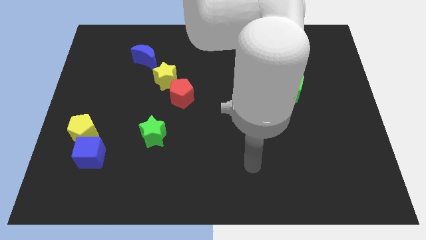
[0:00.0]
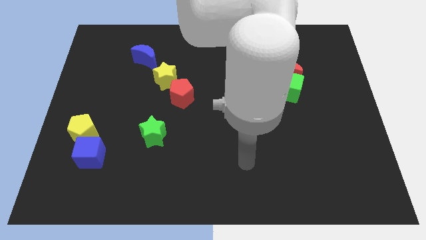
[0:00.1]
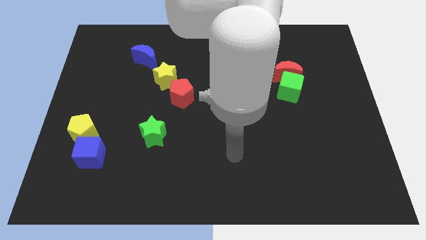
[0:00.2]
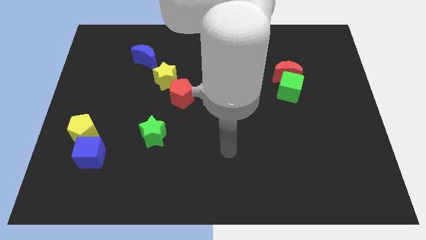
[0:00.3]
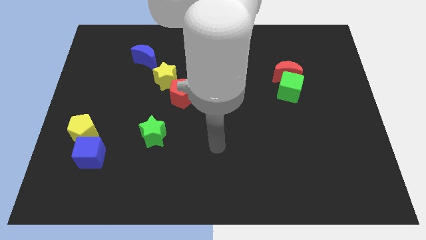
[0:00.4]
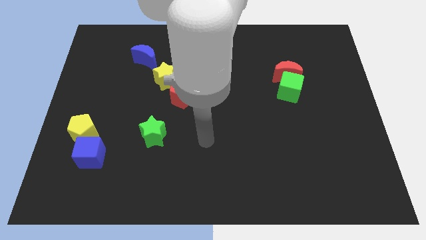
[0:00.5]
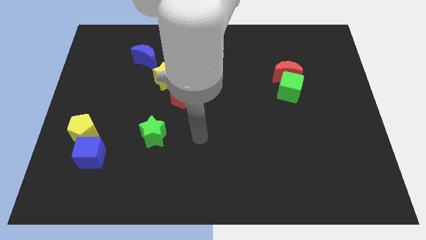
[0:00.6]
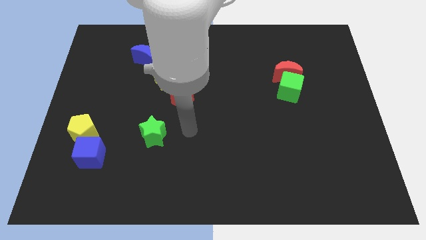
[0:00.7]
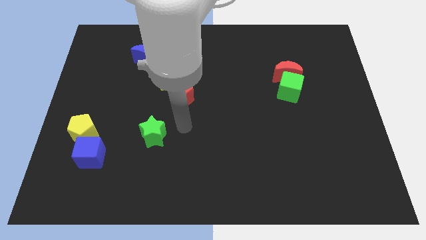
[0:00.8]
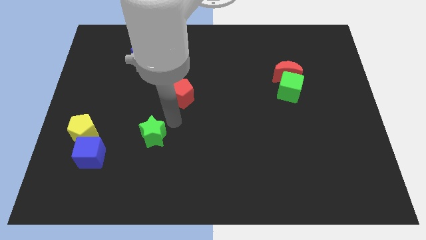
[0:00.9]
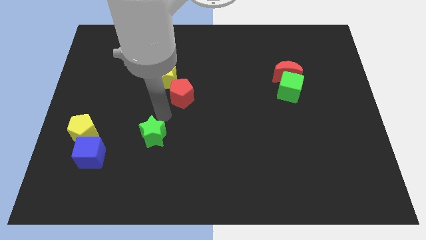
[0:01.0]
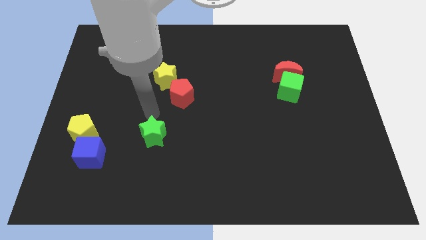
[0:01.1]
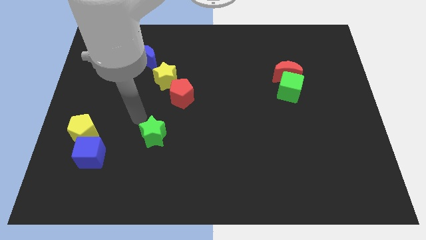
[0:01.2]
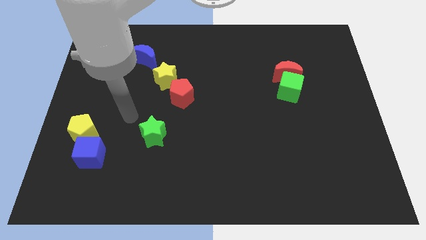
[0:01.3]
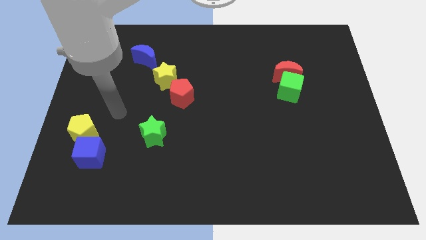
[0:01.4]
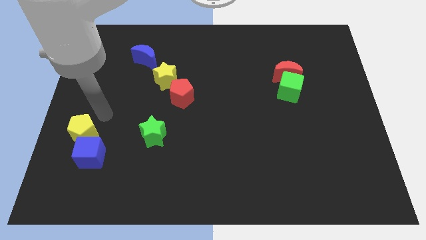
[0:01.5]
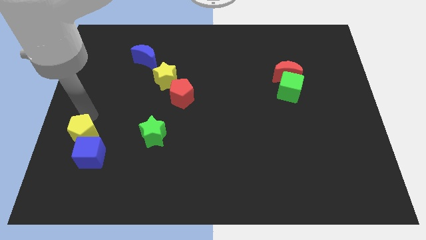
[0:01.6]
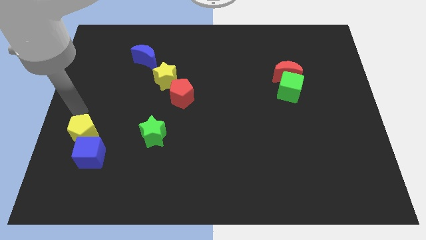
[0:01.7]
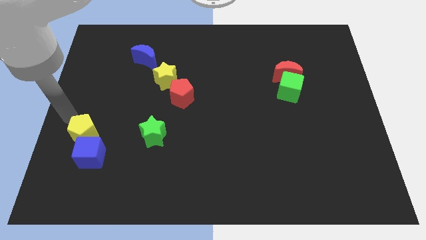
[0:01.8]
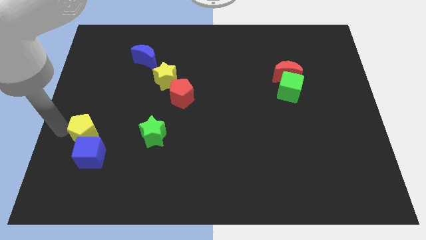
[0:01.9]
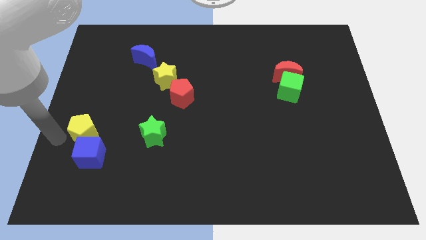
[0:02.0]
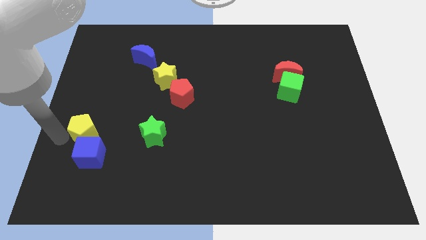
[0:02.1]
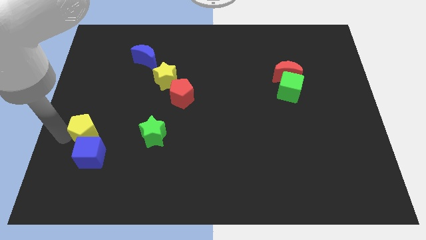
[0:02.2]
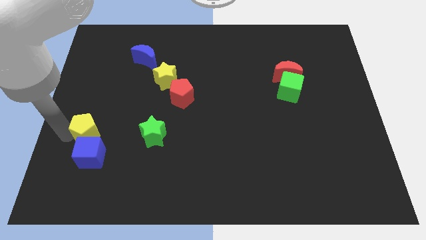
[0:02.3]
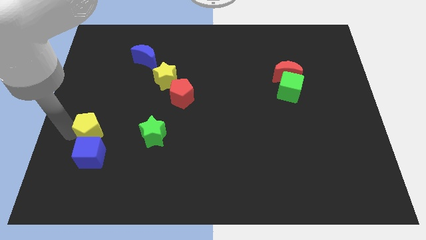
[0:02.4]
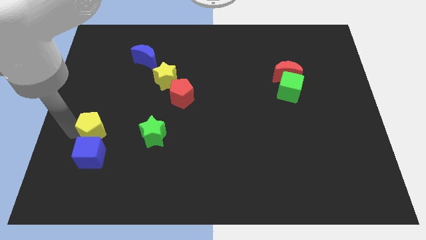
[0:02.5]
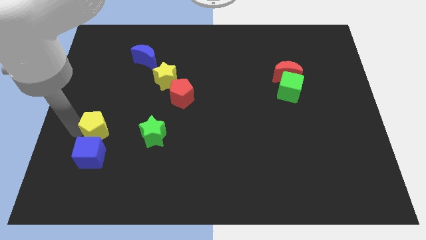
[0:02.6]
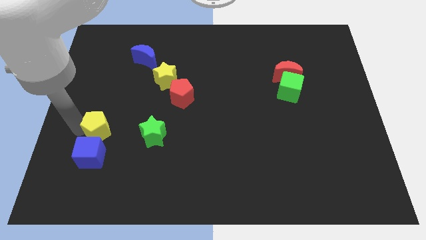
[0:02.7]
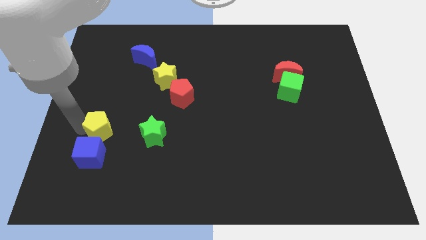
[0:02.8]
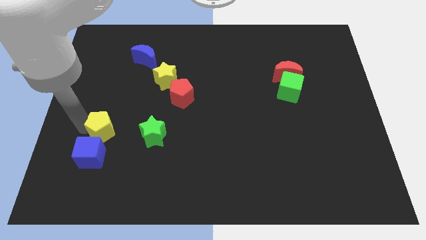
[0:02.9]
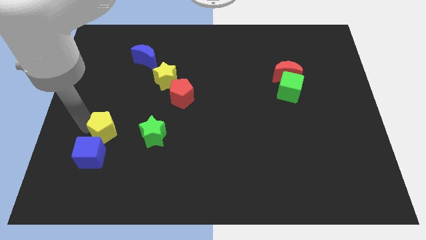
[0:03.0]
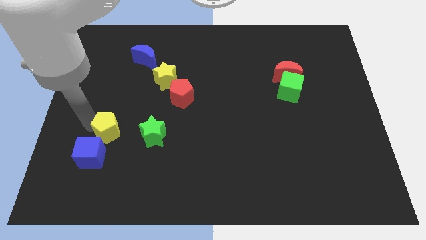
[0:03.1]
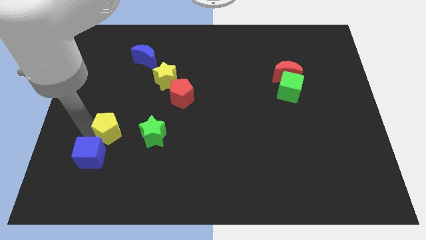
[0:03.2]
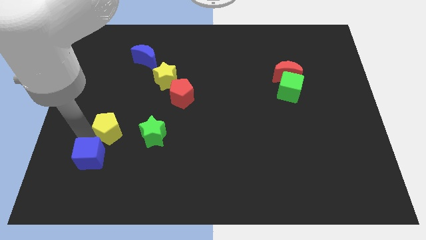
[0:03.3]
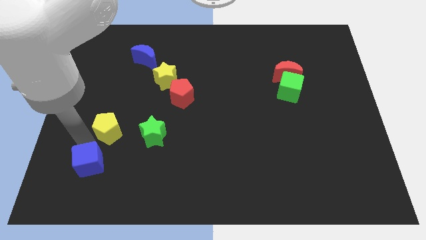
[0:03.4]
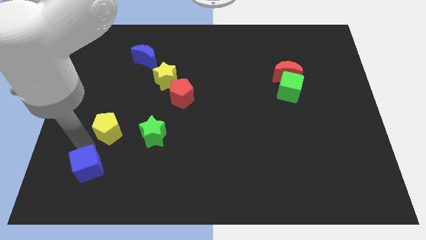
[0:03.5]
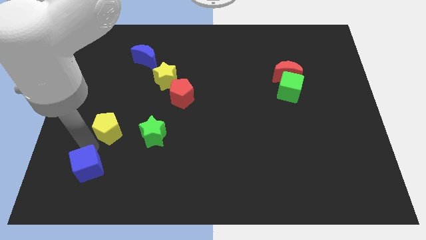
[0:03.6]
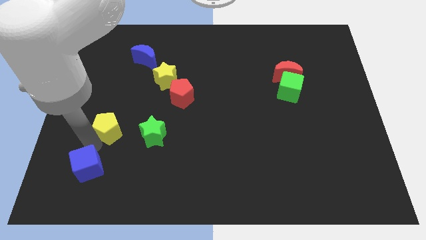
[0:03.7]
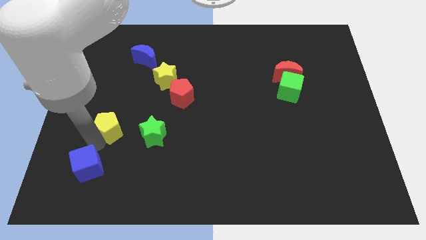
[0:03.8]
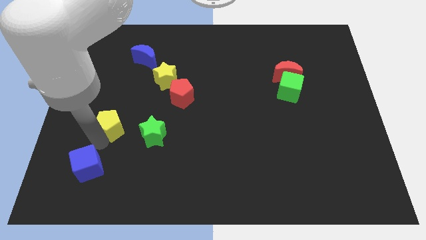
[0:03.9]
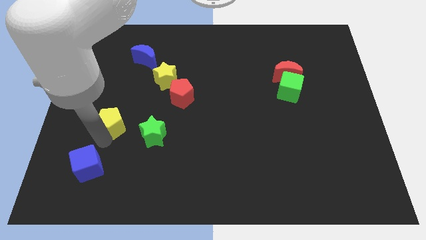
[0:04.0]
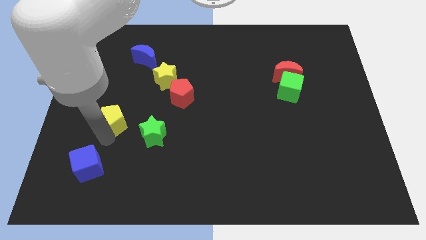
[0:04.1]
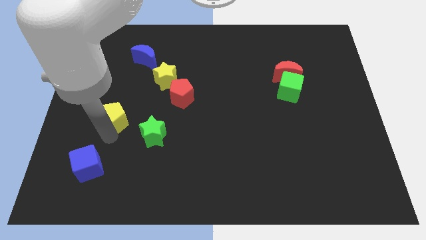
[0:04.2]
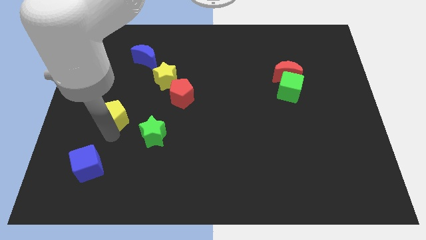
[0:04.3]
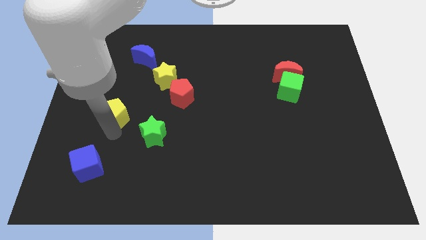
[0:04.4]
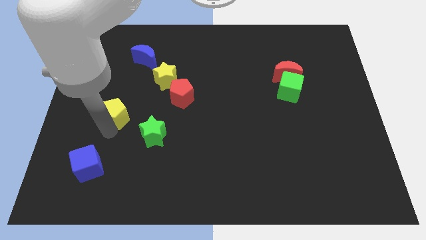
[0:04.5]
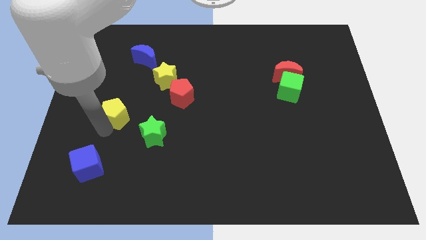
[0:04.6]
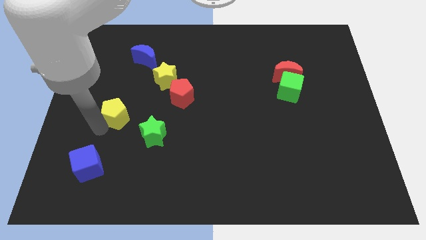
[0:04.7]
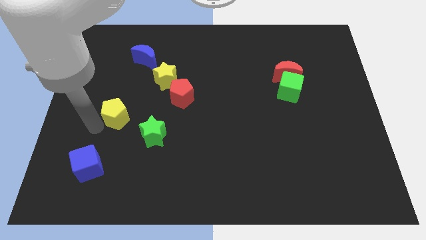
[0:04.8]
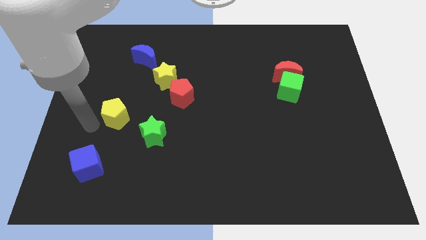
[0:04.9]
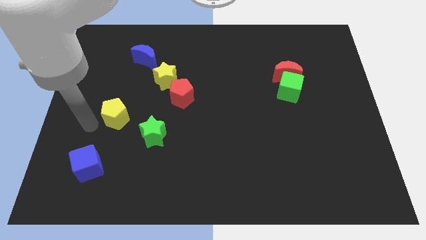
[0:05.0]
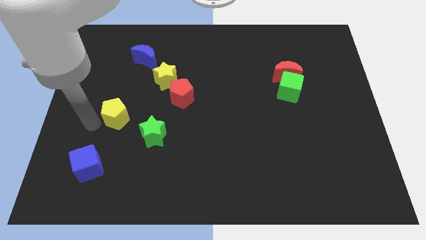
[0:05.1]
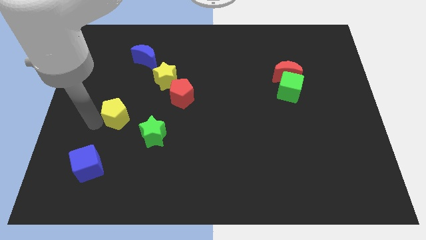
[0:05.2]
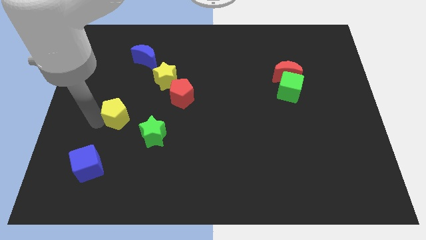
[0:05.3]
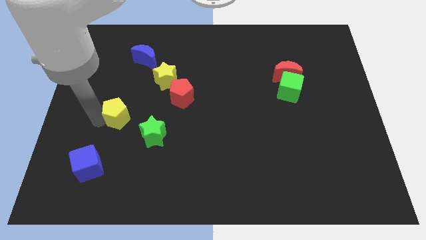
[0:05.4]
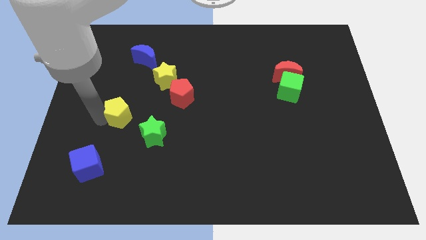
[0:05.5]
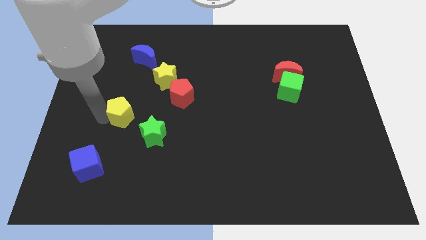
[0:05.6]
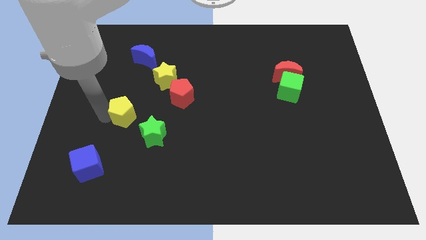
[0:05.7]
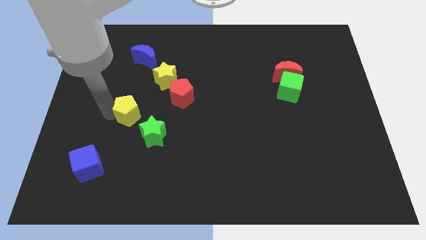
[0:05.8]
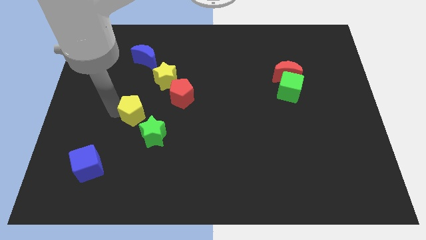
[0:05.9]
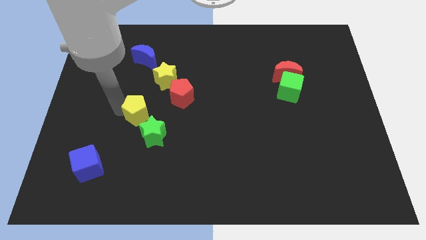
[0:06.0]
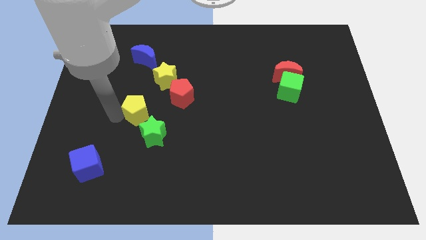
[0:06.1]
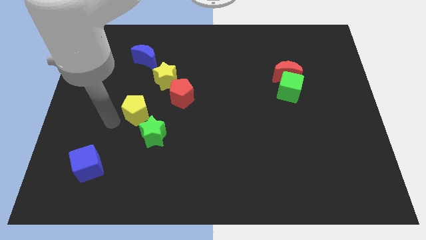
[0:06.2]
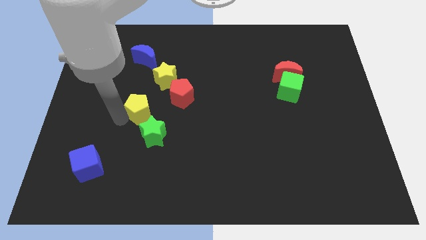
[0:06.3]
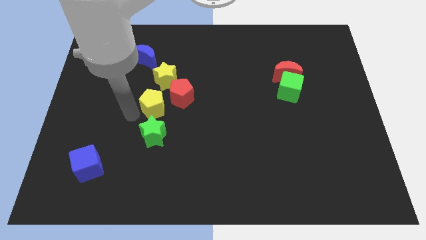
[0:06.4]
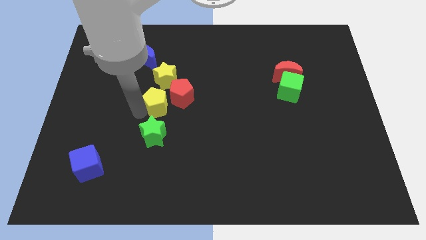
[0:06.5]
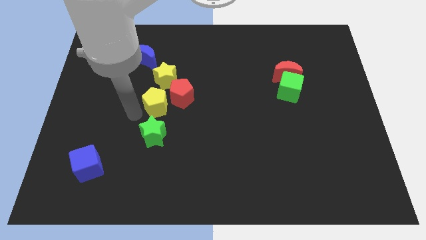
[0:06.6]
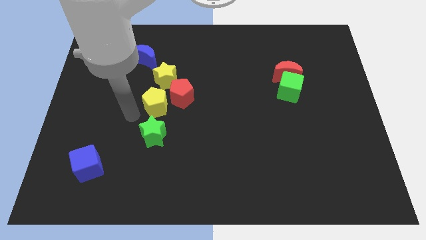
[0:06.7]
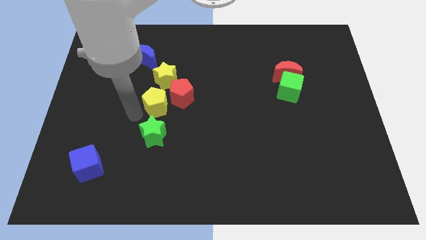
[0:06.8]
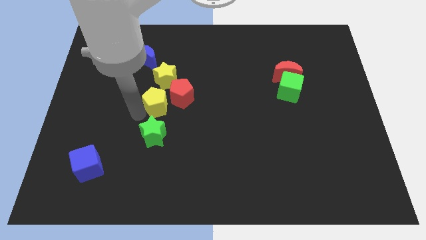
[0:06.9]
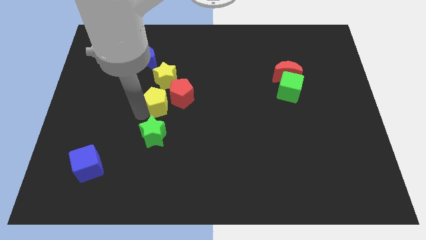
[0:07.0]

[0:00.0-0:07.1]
slide the yellow pentagon to the red pentagon

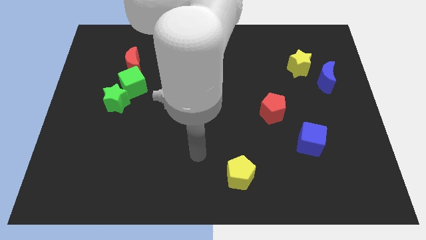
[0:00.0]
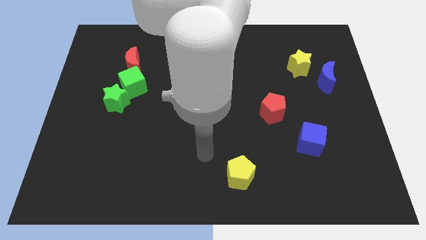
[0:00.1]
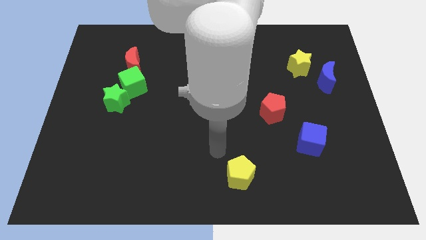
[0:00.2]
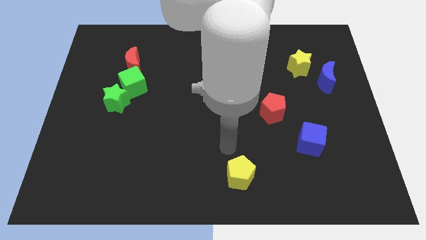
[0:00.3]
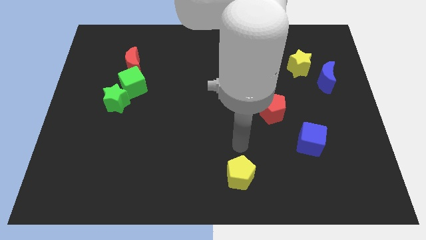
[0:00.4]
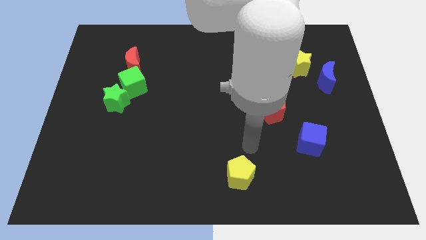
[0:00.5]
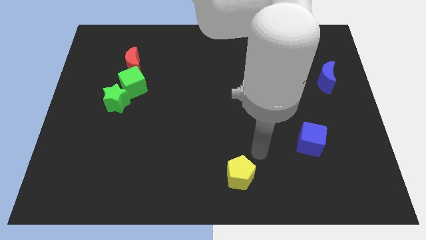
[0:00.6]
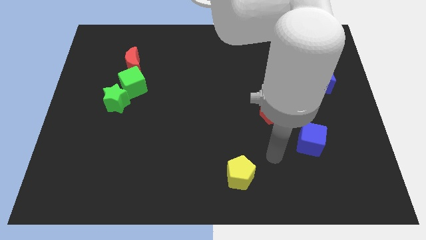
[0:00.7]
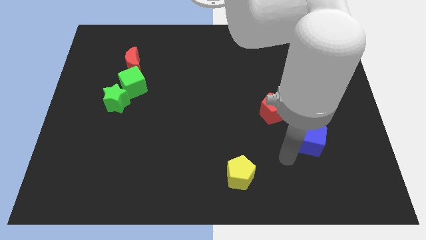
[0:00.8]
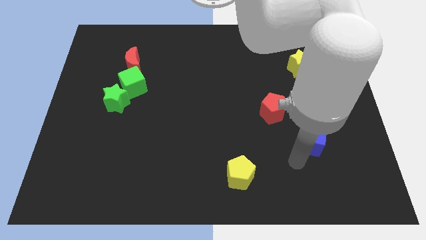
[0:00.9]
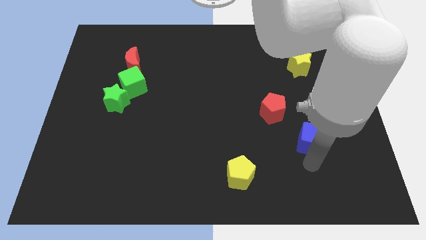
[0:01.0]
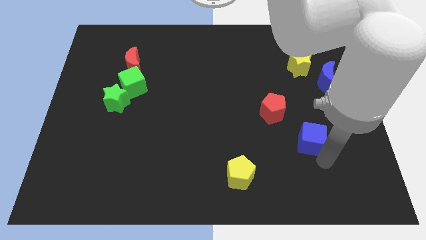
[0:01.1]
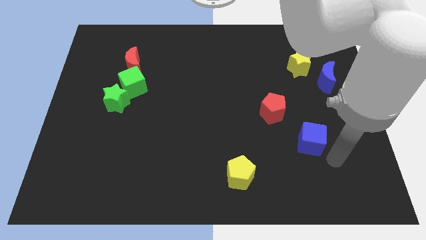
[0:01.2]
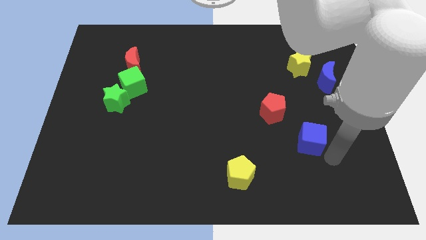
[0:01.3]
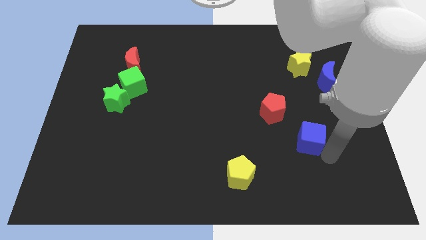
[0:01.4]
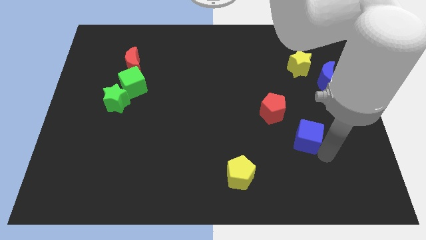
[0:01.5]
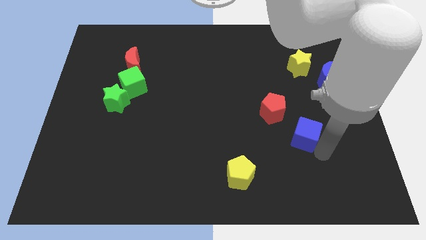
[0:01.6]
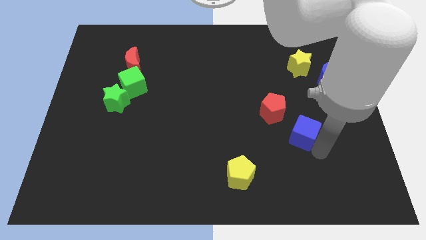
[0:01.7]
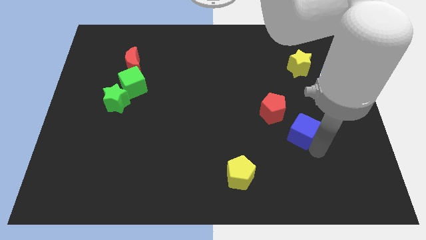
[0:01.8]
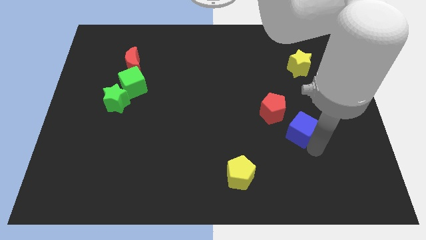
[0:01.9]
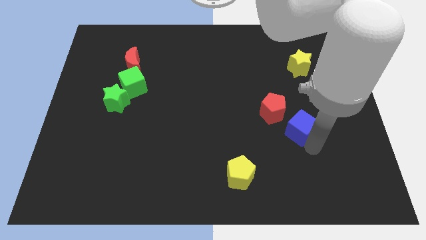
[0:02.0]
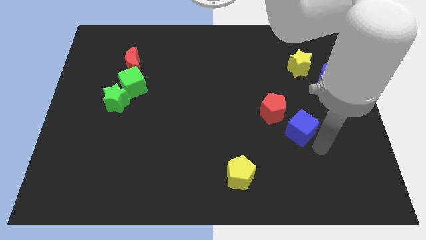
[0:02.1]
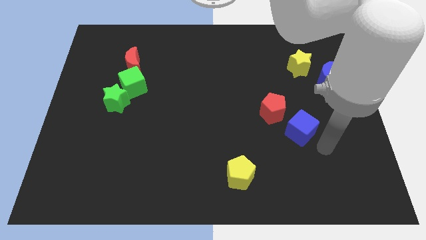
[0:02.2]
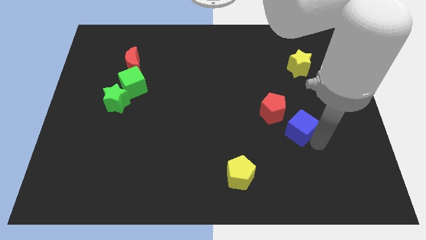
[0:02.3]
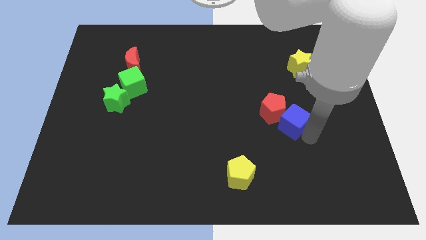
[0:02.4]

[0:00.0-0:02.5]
move the blue cube close to the red pentagon
